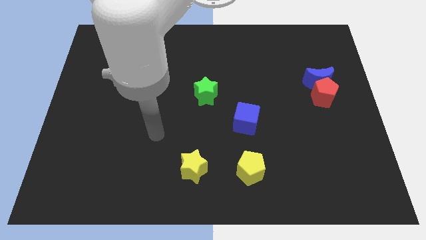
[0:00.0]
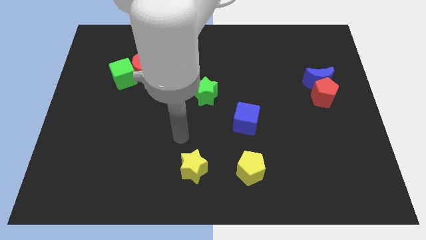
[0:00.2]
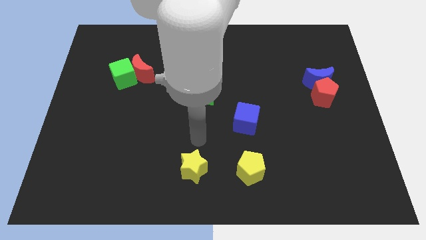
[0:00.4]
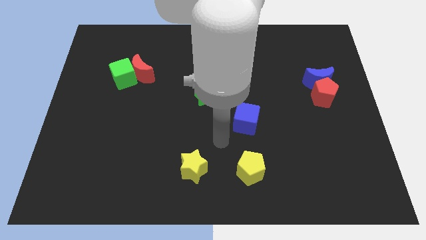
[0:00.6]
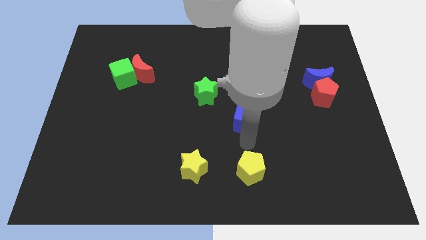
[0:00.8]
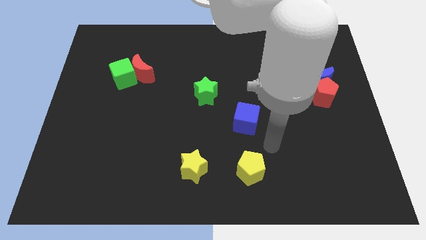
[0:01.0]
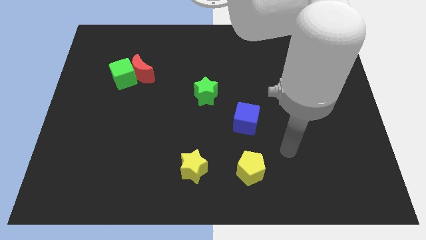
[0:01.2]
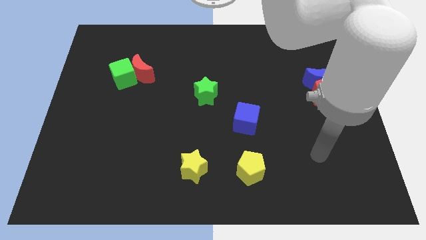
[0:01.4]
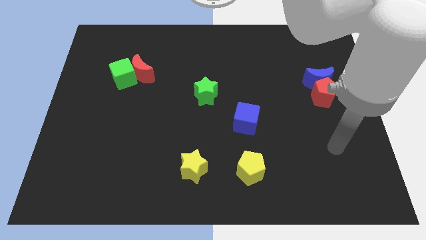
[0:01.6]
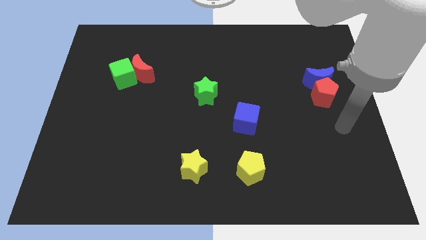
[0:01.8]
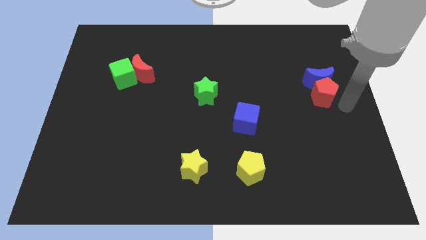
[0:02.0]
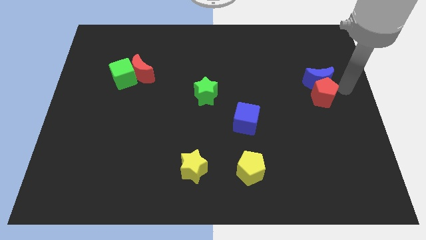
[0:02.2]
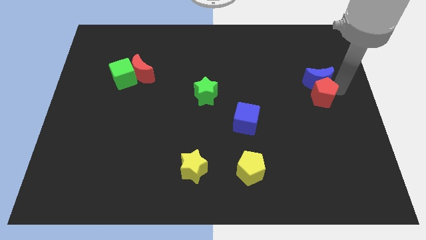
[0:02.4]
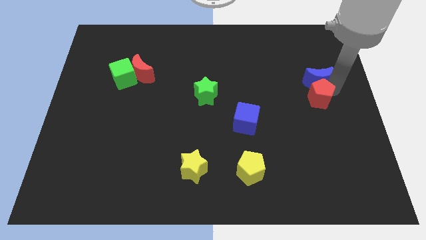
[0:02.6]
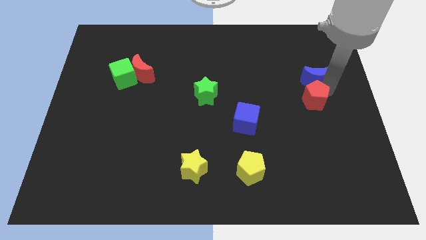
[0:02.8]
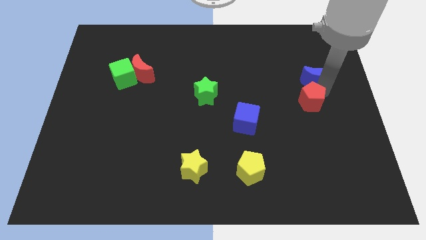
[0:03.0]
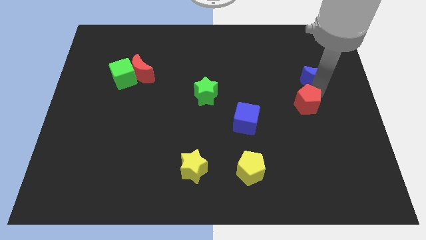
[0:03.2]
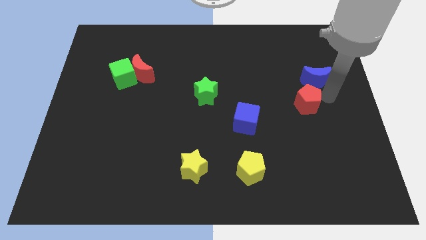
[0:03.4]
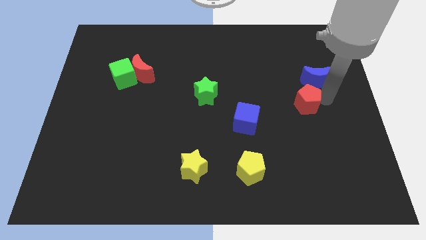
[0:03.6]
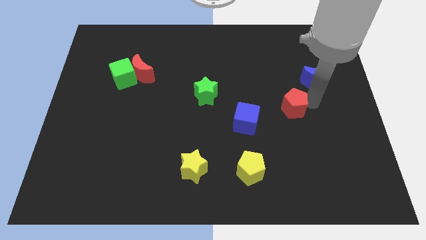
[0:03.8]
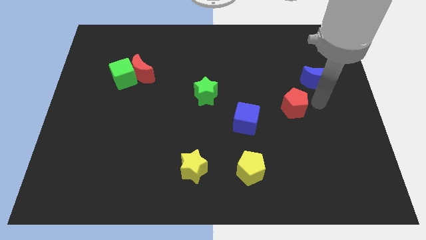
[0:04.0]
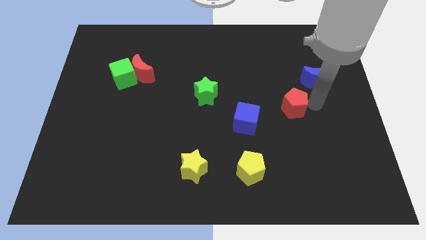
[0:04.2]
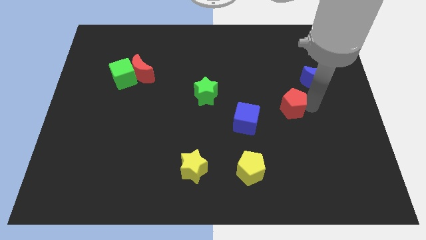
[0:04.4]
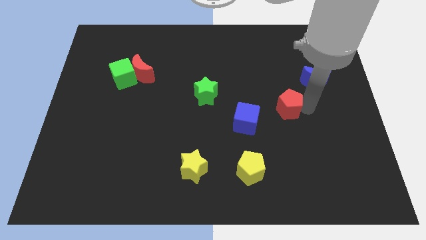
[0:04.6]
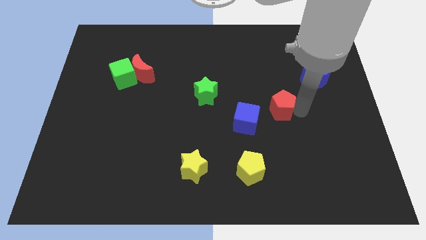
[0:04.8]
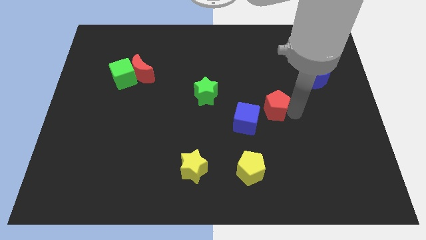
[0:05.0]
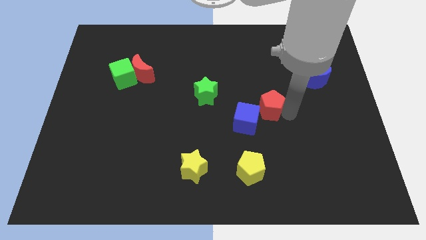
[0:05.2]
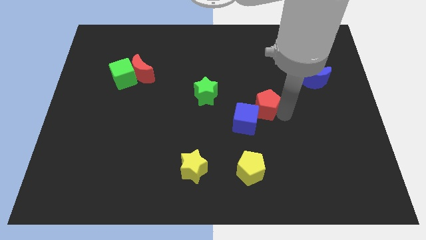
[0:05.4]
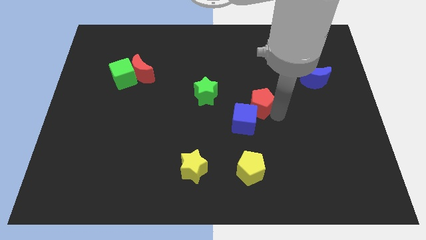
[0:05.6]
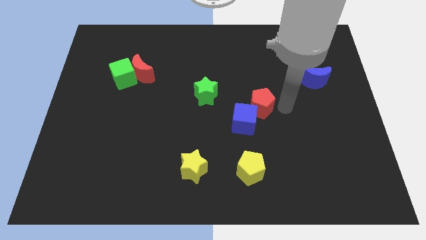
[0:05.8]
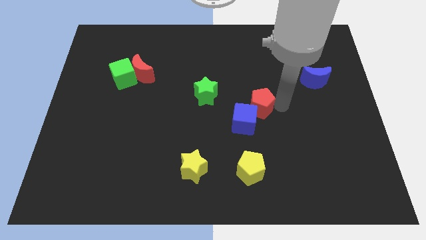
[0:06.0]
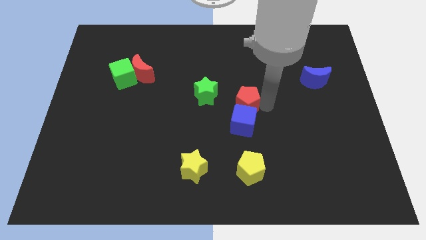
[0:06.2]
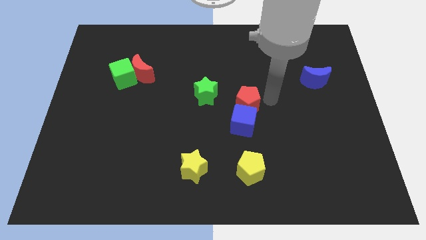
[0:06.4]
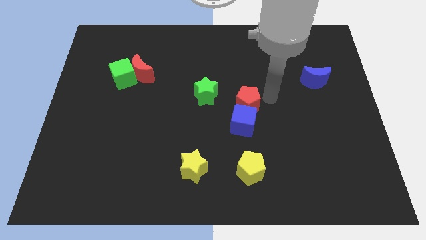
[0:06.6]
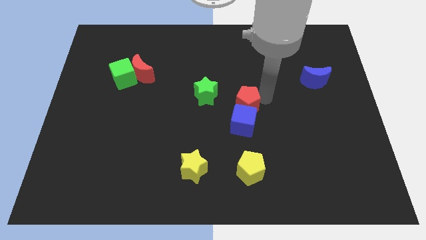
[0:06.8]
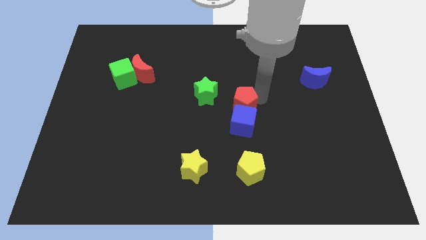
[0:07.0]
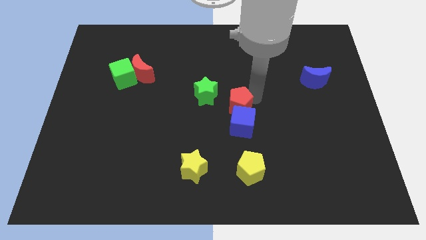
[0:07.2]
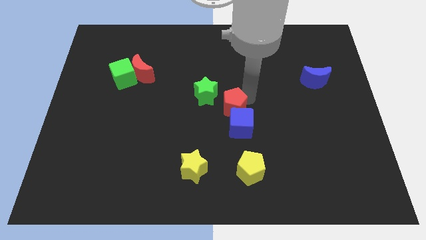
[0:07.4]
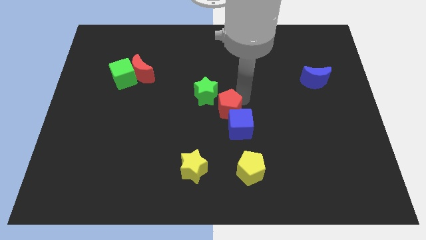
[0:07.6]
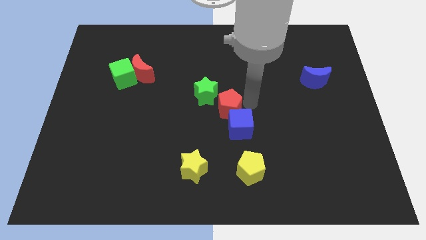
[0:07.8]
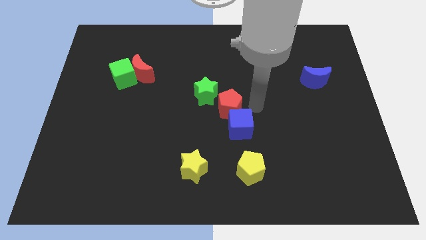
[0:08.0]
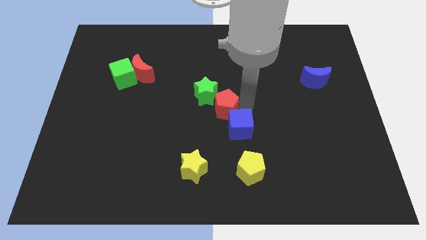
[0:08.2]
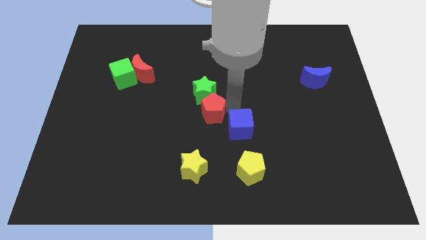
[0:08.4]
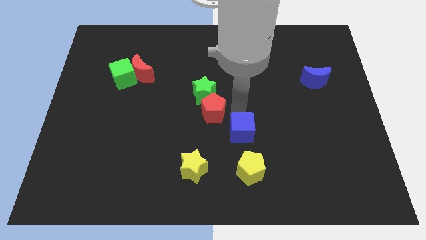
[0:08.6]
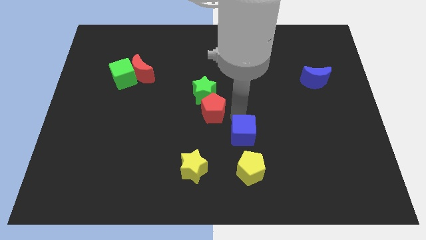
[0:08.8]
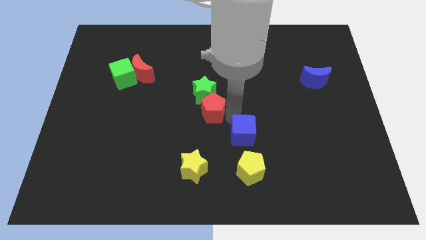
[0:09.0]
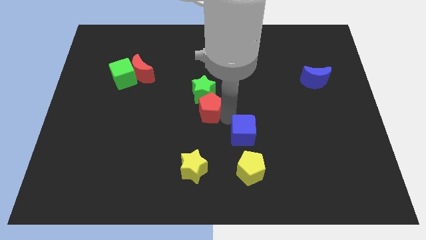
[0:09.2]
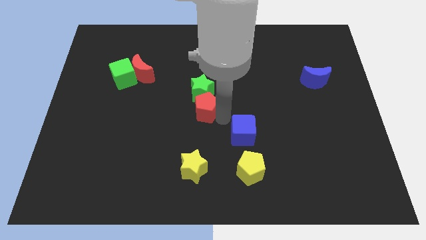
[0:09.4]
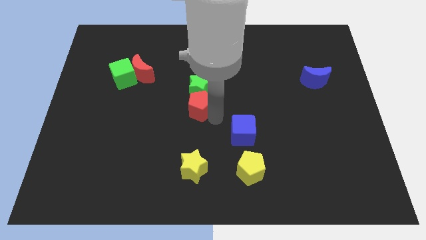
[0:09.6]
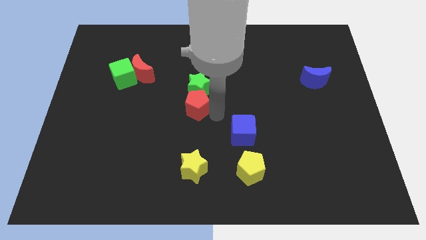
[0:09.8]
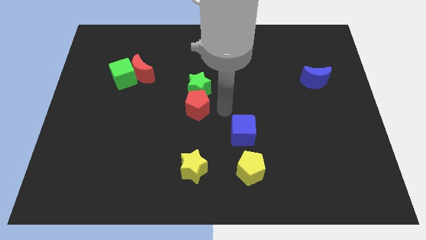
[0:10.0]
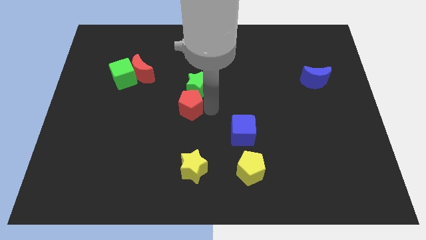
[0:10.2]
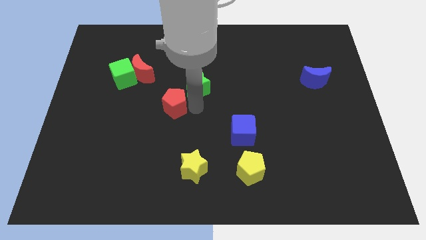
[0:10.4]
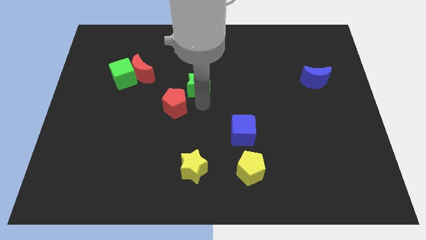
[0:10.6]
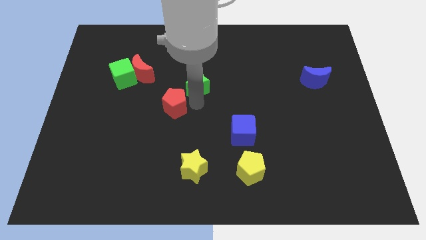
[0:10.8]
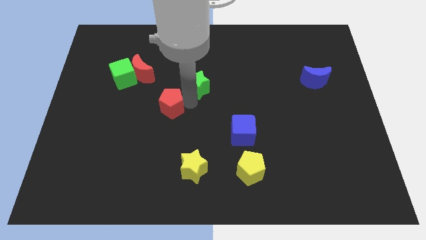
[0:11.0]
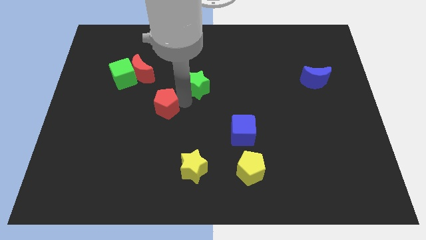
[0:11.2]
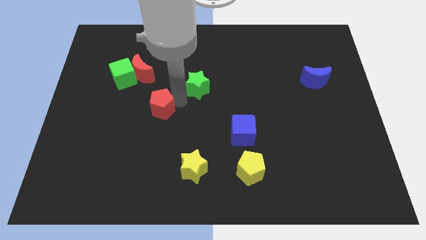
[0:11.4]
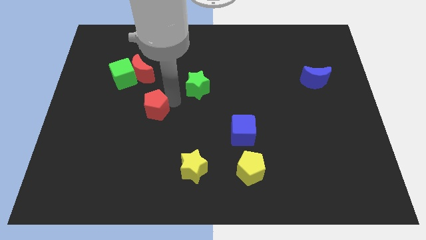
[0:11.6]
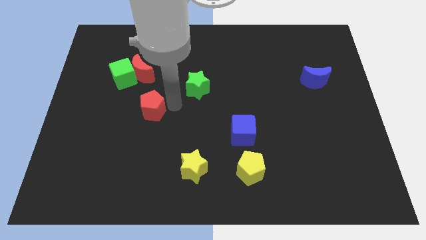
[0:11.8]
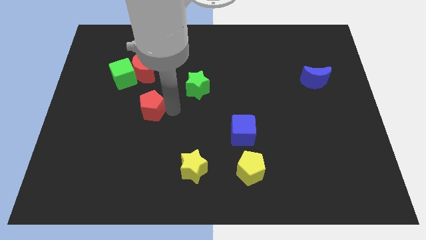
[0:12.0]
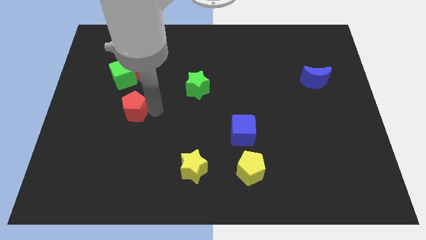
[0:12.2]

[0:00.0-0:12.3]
slide the red pentagon below the green cube

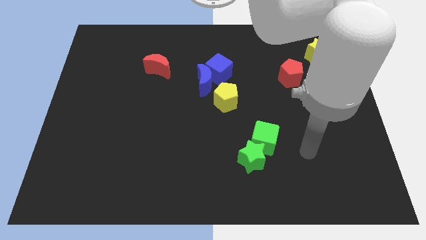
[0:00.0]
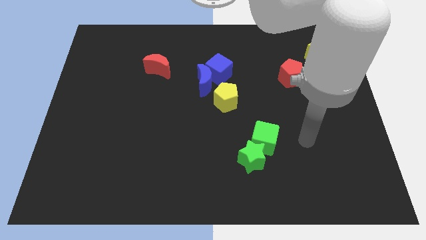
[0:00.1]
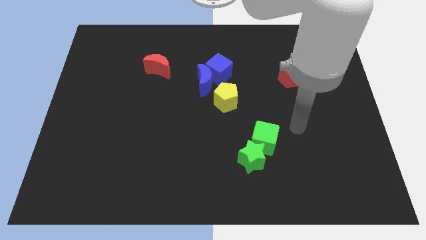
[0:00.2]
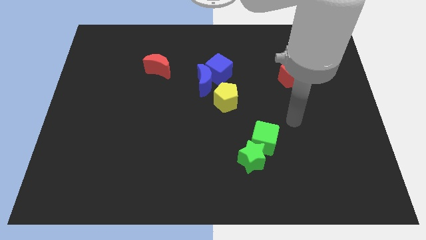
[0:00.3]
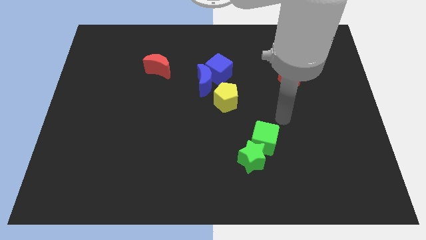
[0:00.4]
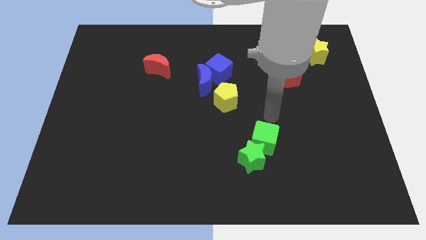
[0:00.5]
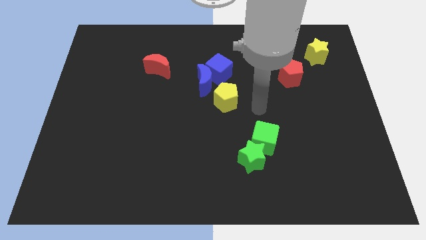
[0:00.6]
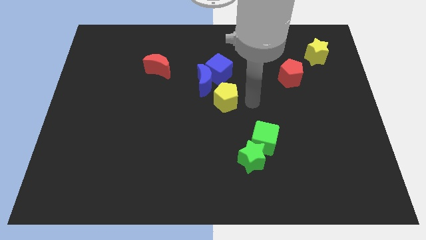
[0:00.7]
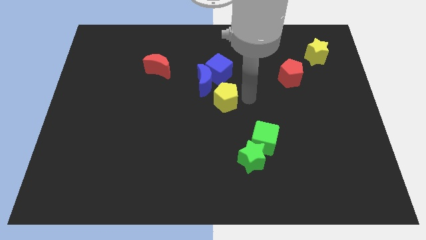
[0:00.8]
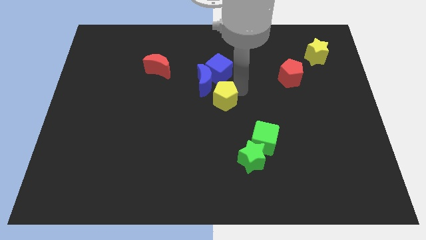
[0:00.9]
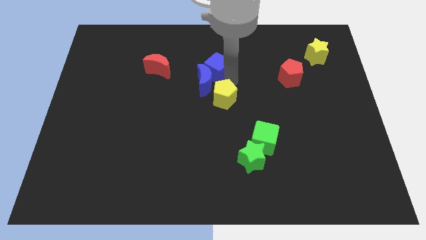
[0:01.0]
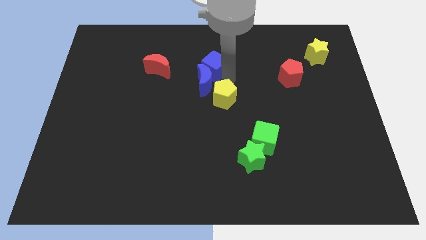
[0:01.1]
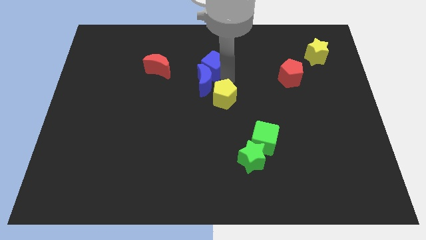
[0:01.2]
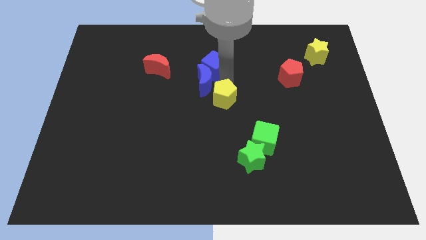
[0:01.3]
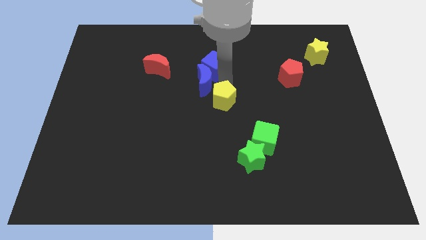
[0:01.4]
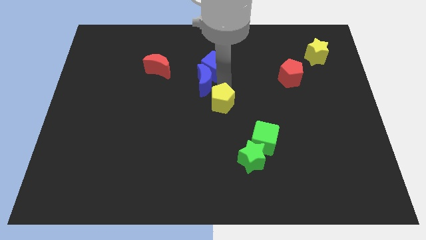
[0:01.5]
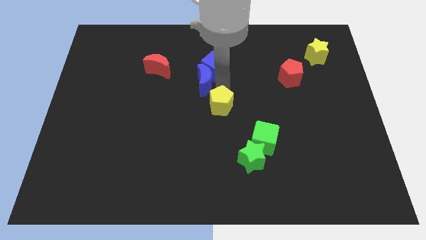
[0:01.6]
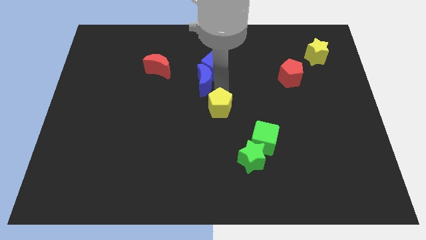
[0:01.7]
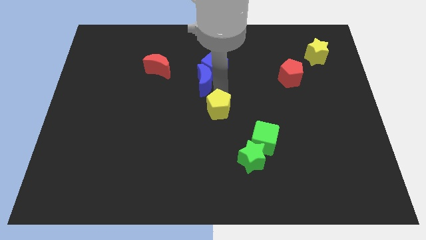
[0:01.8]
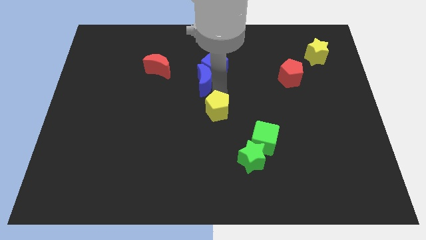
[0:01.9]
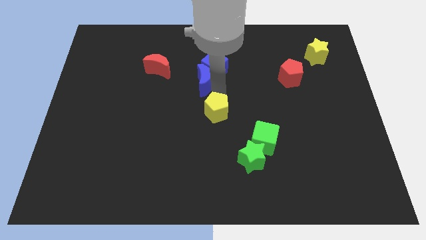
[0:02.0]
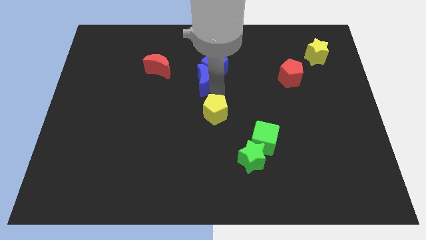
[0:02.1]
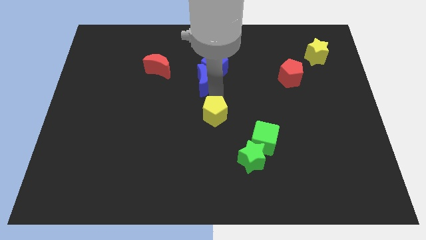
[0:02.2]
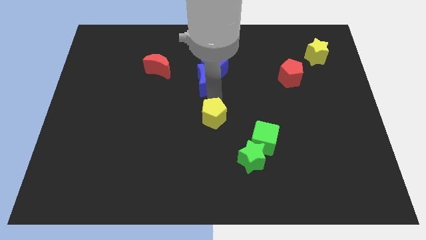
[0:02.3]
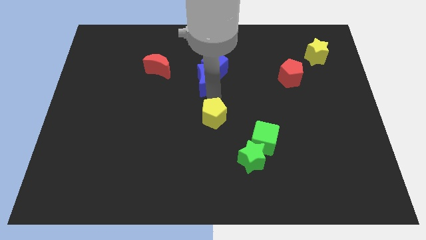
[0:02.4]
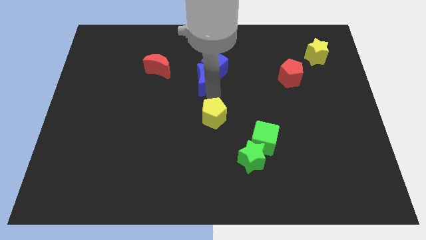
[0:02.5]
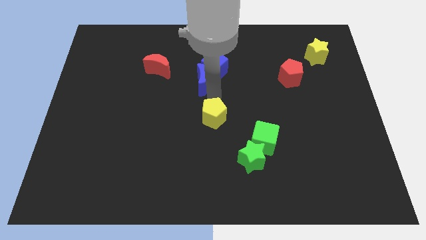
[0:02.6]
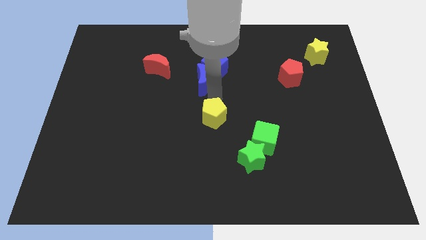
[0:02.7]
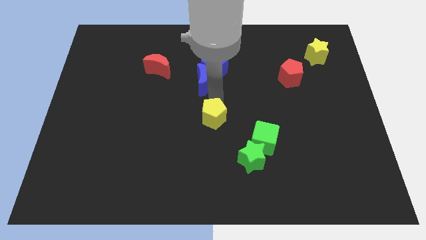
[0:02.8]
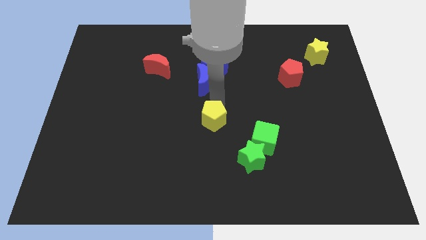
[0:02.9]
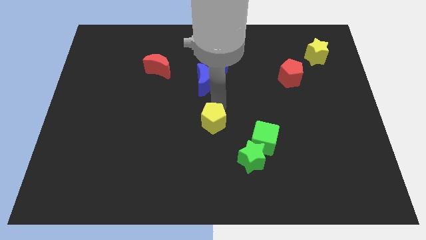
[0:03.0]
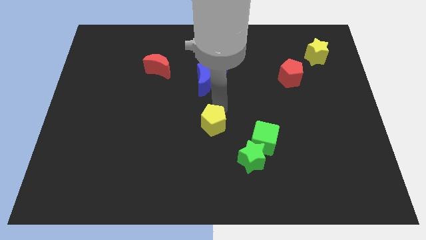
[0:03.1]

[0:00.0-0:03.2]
put the yellow pentagon just left of the green cube
